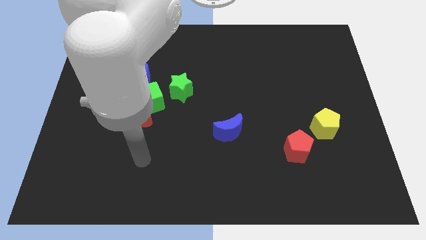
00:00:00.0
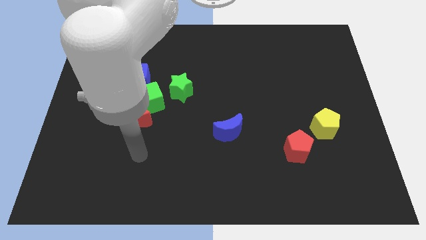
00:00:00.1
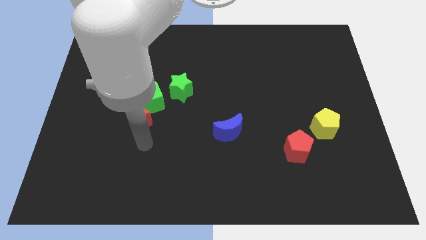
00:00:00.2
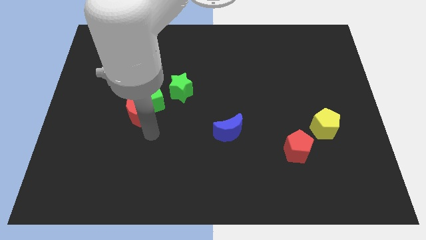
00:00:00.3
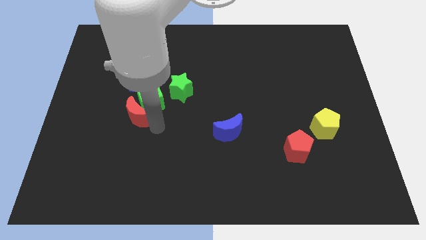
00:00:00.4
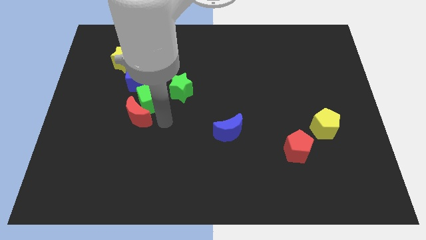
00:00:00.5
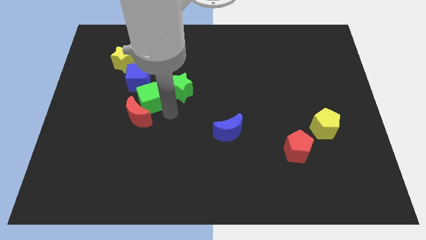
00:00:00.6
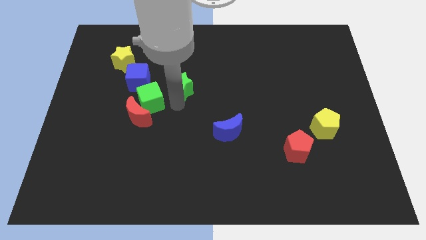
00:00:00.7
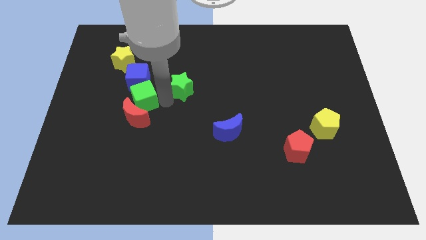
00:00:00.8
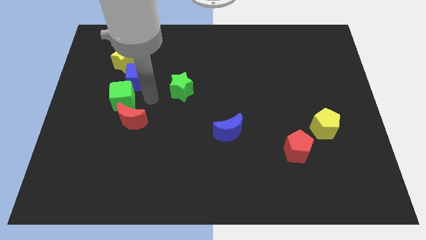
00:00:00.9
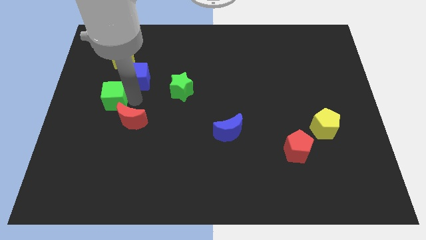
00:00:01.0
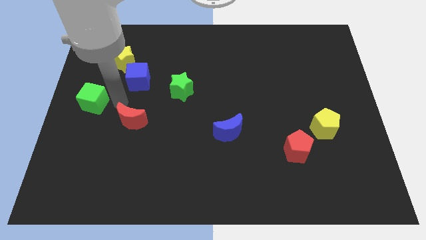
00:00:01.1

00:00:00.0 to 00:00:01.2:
move the red moon away from the green cube

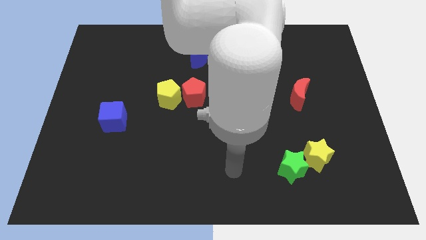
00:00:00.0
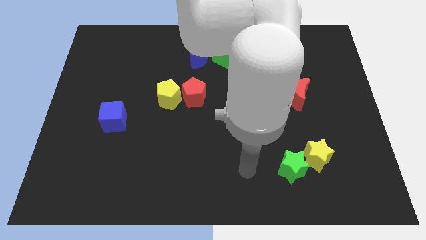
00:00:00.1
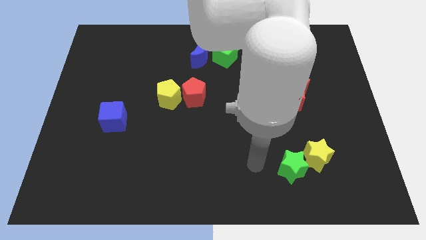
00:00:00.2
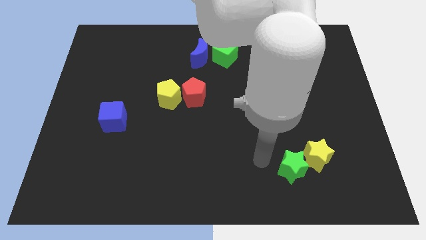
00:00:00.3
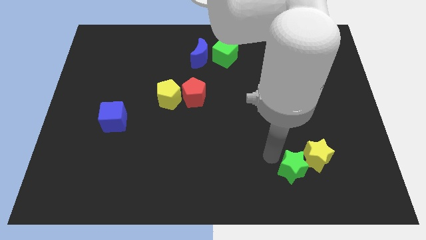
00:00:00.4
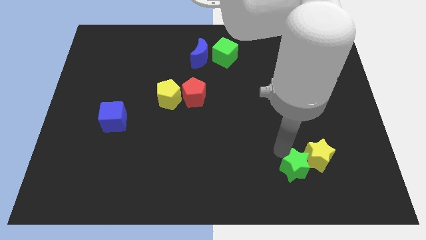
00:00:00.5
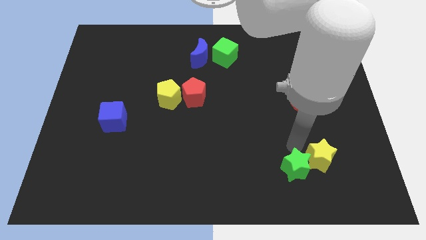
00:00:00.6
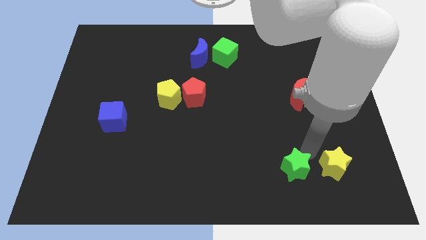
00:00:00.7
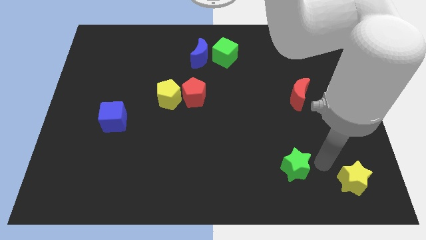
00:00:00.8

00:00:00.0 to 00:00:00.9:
move the green star away from the yellow star

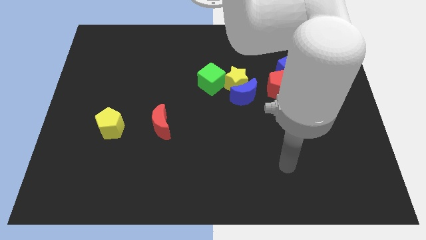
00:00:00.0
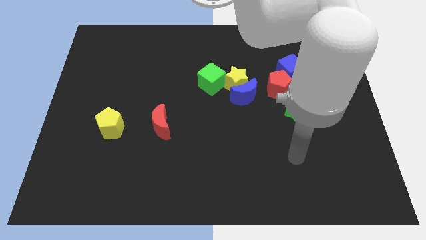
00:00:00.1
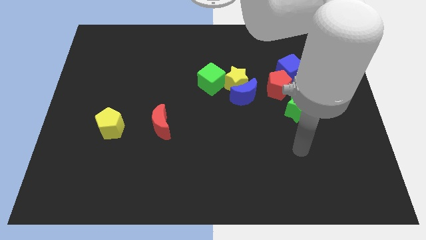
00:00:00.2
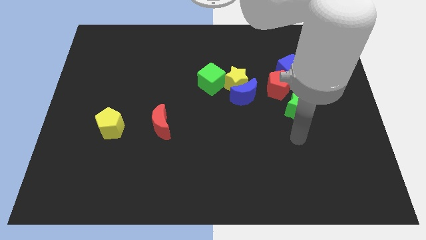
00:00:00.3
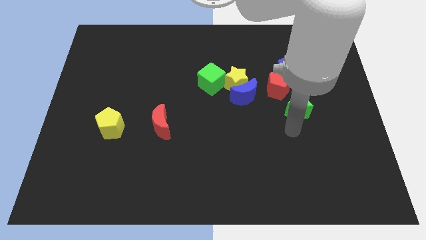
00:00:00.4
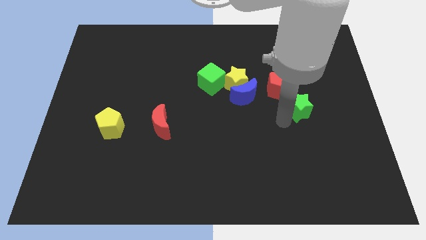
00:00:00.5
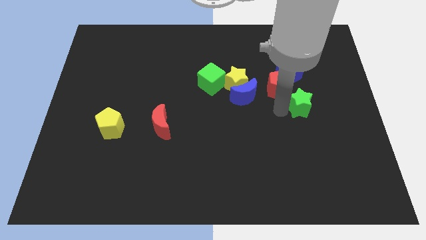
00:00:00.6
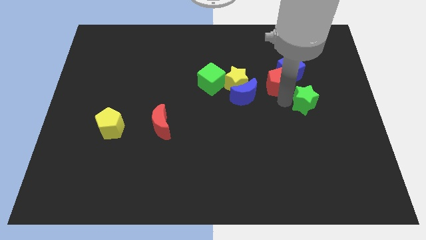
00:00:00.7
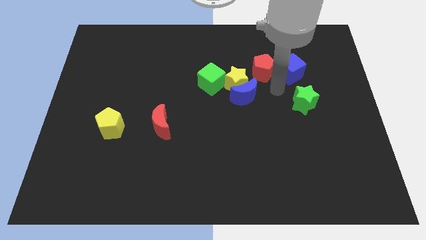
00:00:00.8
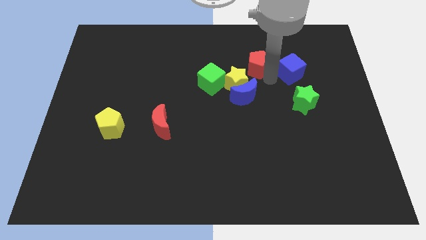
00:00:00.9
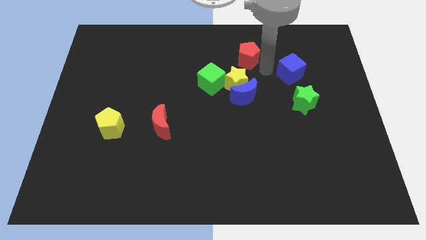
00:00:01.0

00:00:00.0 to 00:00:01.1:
pull the blue cube apart from the red pentagon

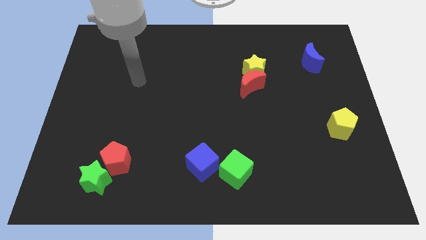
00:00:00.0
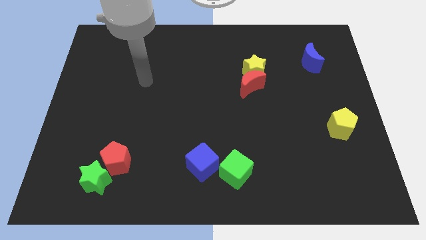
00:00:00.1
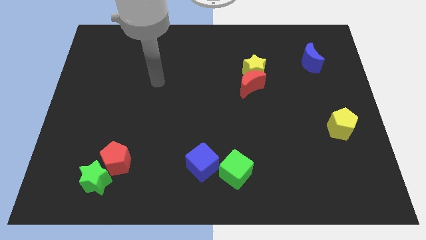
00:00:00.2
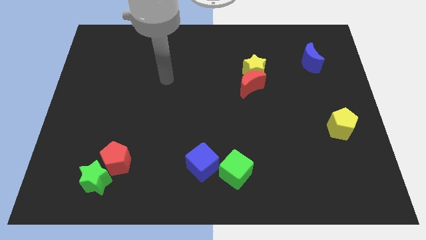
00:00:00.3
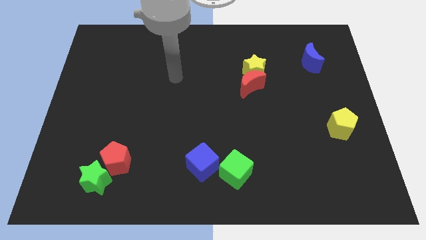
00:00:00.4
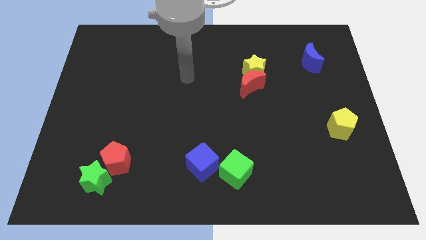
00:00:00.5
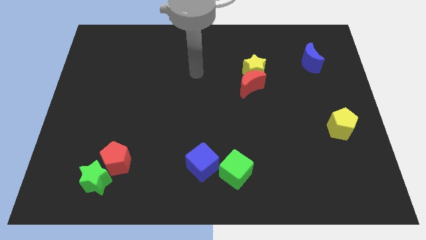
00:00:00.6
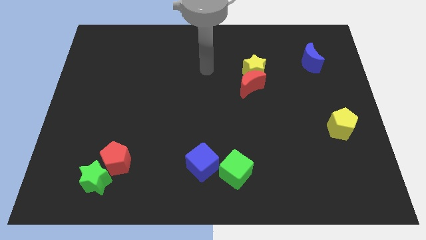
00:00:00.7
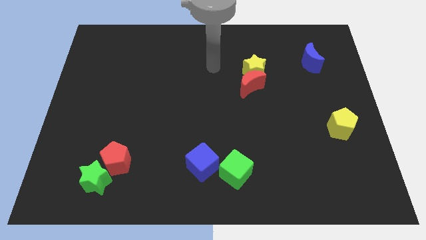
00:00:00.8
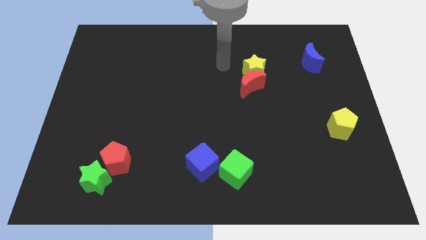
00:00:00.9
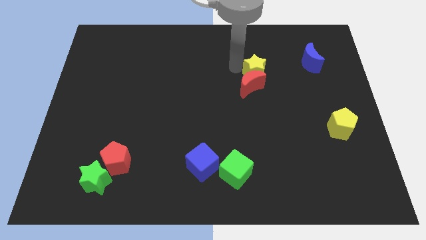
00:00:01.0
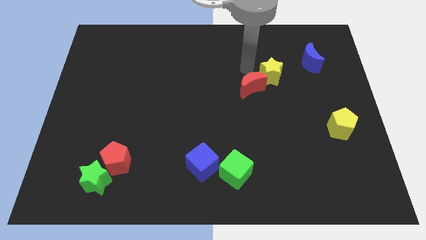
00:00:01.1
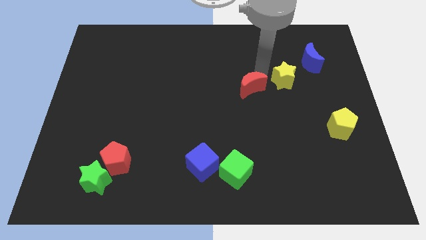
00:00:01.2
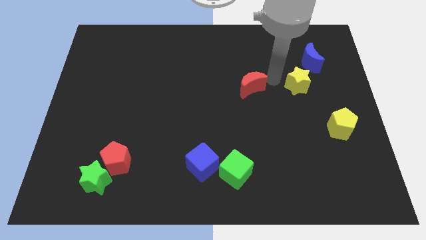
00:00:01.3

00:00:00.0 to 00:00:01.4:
move the red moon away from the yellow star

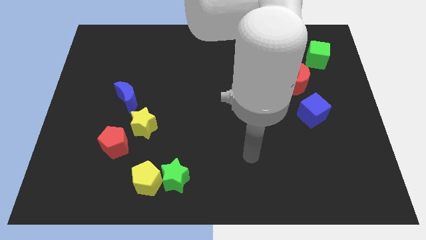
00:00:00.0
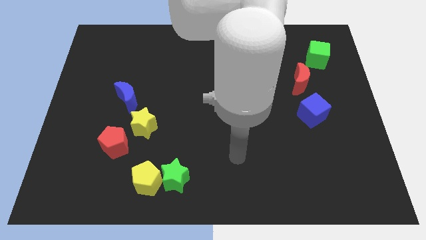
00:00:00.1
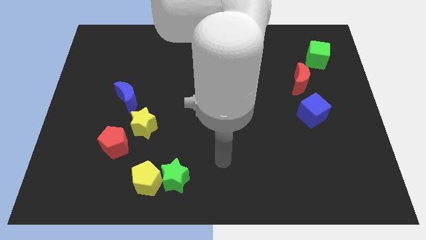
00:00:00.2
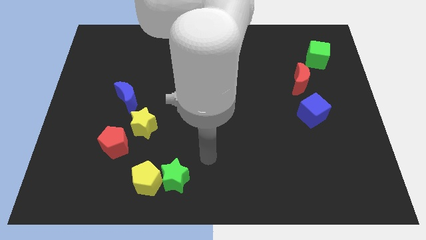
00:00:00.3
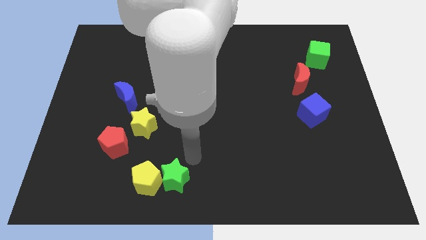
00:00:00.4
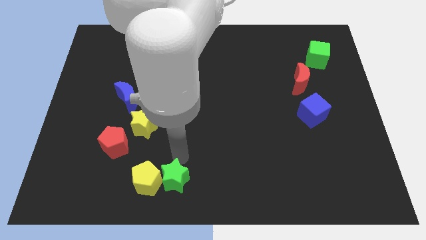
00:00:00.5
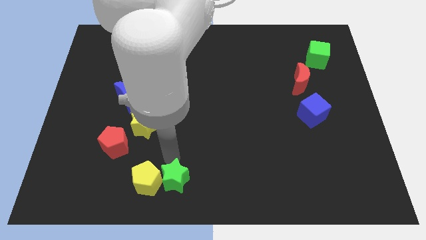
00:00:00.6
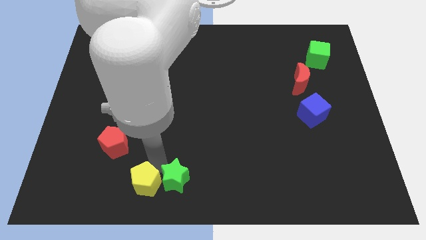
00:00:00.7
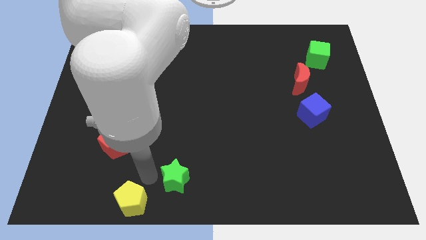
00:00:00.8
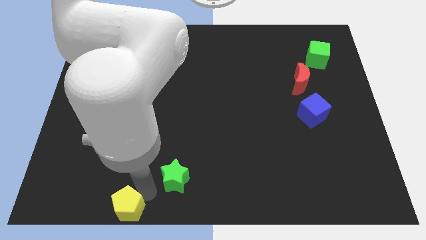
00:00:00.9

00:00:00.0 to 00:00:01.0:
separate the green star from the yellow pentagon

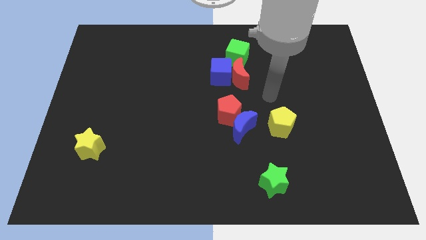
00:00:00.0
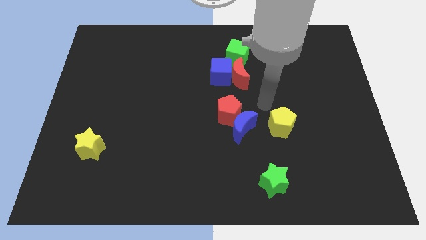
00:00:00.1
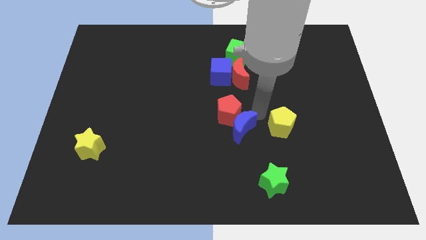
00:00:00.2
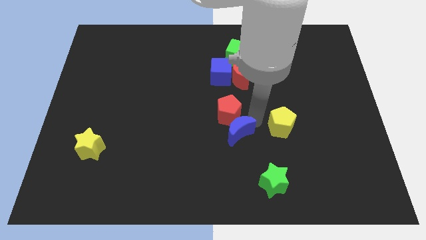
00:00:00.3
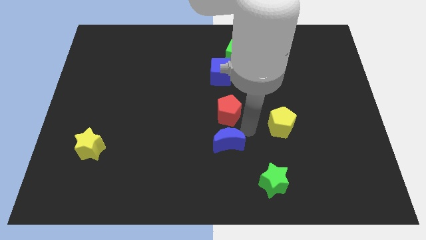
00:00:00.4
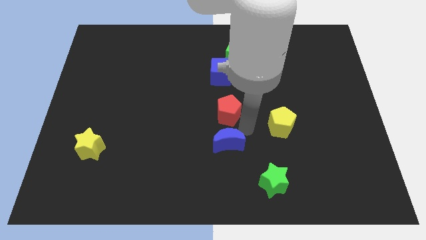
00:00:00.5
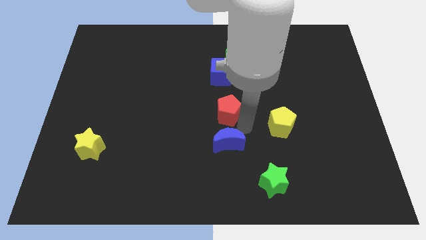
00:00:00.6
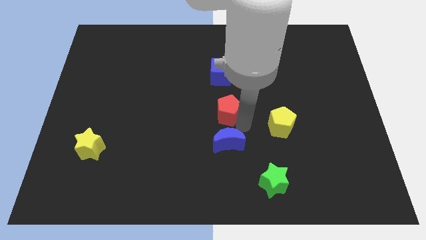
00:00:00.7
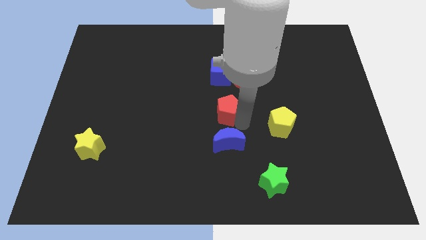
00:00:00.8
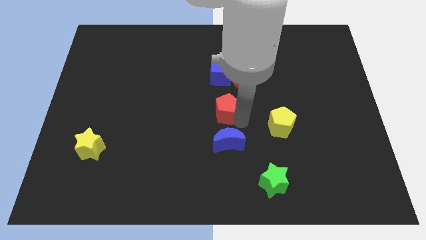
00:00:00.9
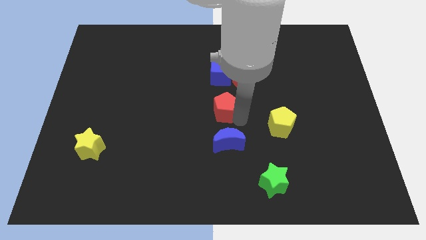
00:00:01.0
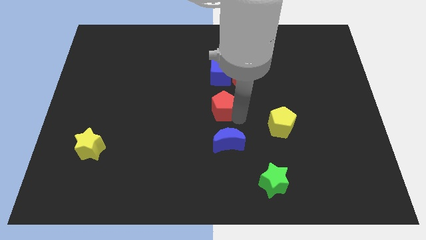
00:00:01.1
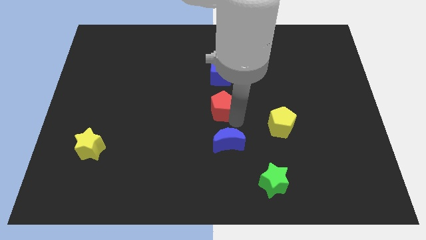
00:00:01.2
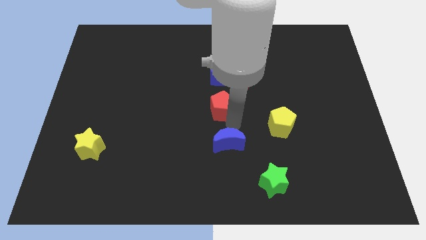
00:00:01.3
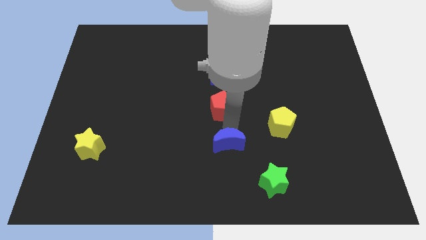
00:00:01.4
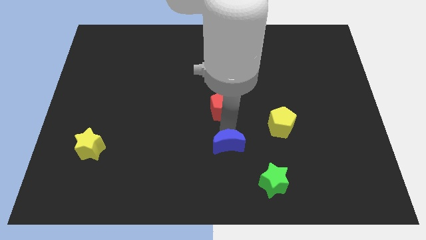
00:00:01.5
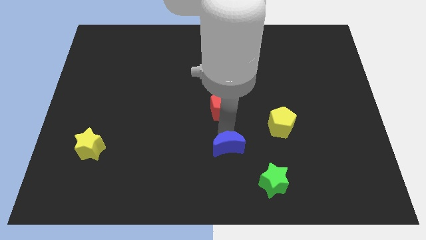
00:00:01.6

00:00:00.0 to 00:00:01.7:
move the red pentagon away from the blue moon

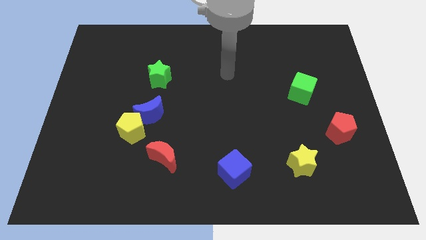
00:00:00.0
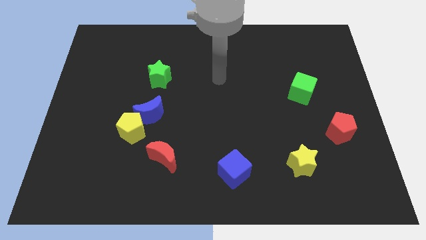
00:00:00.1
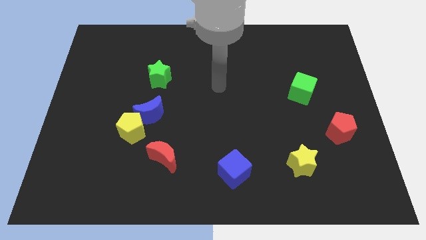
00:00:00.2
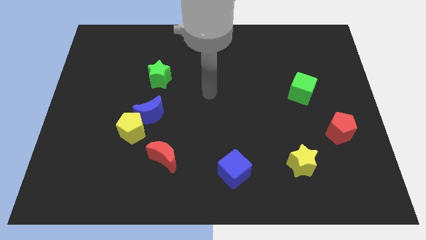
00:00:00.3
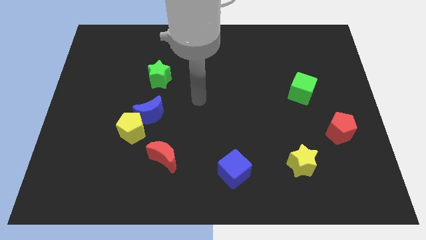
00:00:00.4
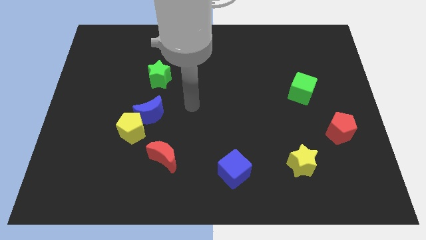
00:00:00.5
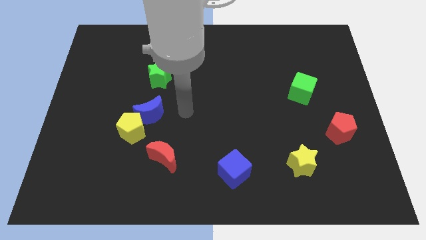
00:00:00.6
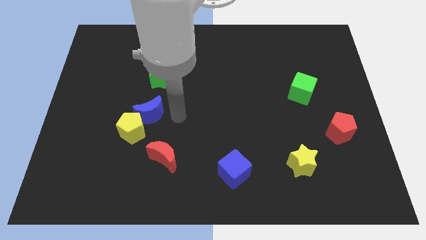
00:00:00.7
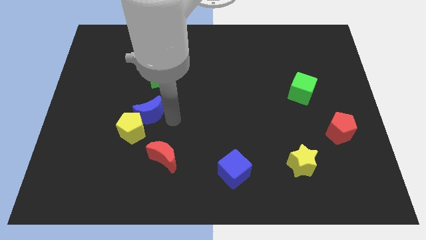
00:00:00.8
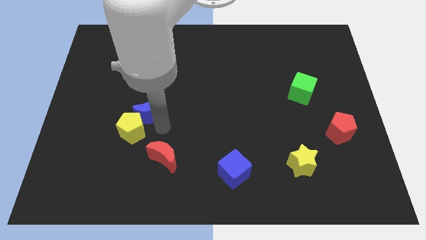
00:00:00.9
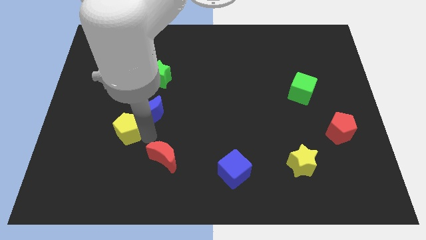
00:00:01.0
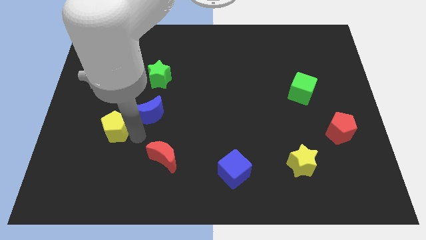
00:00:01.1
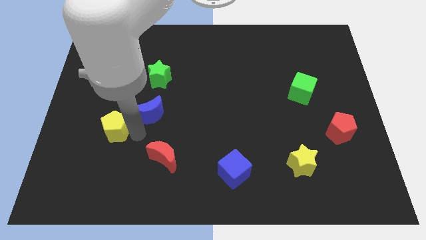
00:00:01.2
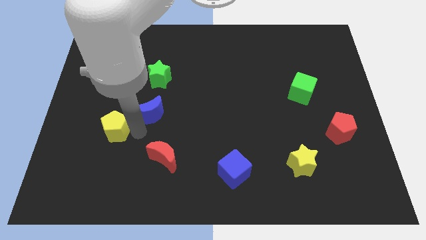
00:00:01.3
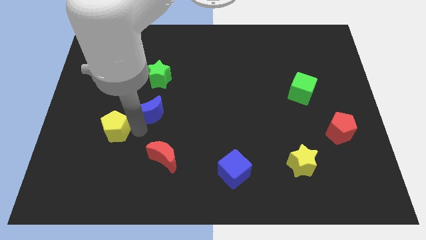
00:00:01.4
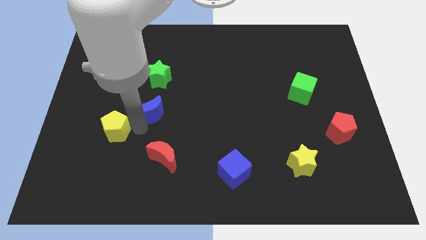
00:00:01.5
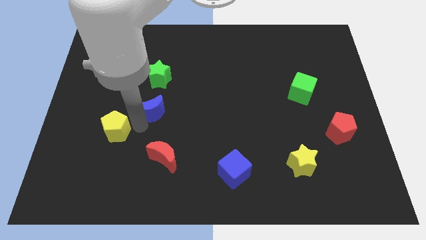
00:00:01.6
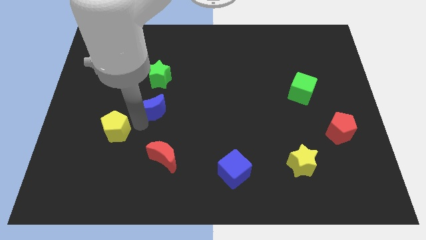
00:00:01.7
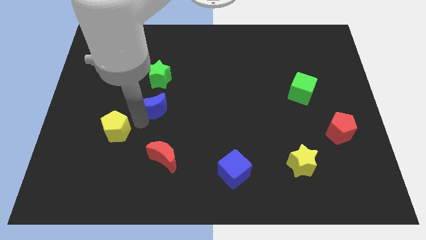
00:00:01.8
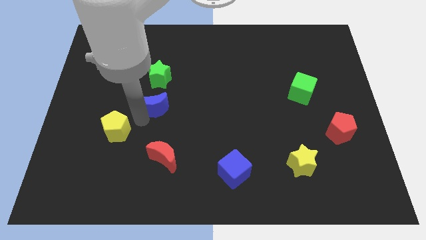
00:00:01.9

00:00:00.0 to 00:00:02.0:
move the blue moon away from the yellow pentagon

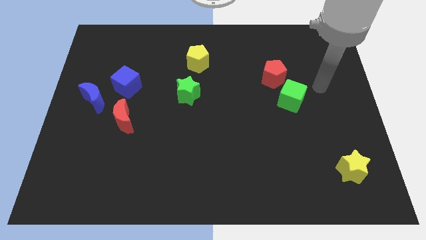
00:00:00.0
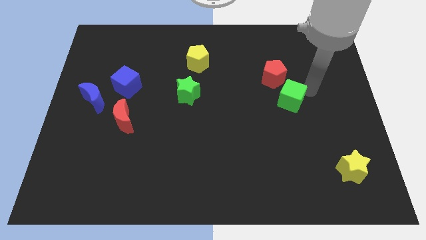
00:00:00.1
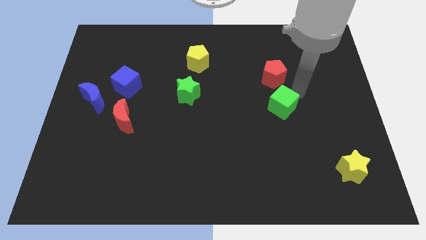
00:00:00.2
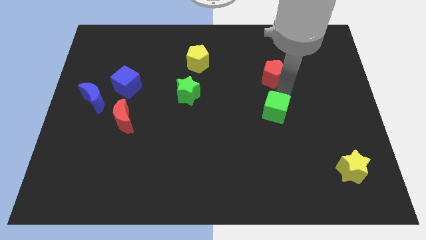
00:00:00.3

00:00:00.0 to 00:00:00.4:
separate the red pentagon from the green cube
